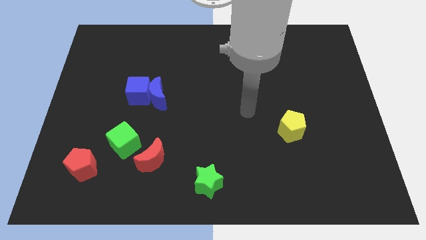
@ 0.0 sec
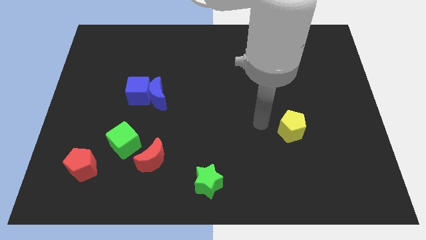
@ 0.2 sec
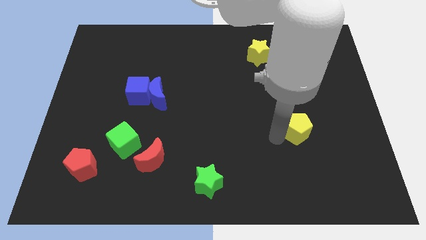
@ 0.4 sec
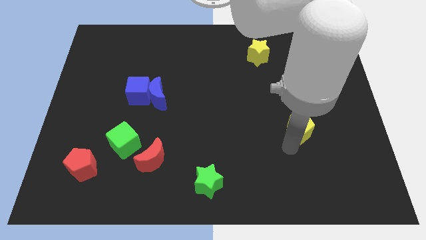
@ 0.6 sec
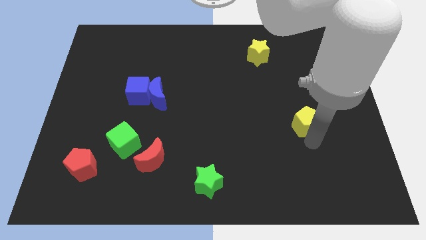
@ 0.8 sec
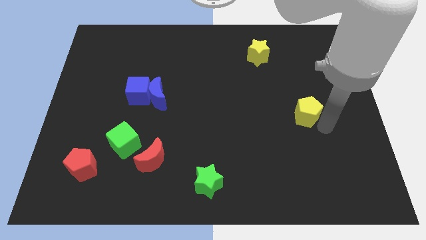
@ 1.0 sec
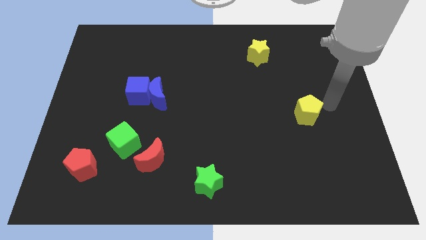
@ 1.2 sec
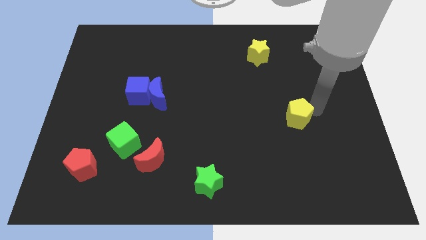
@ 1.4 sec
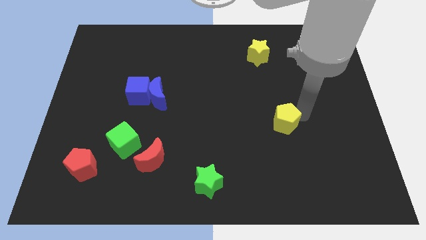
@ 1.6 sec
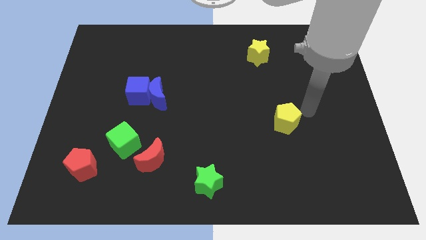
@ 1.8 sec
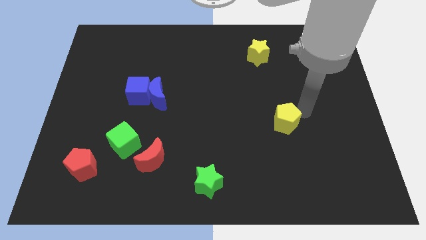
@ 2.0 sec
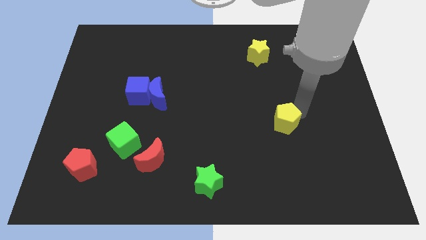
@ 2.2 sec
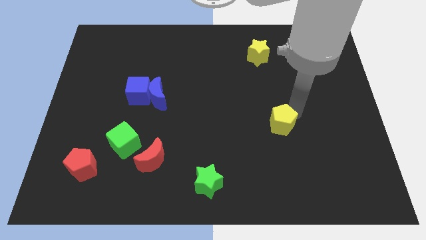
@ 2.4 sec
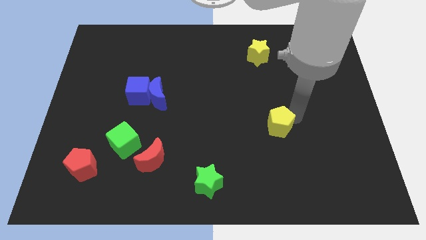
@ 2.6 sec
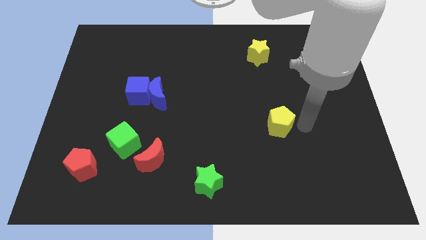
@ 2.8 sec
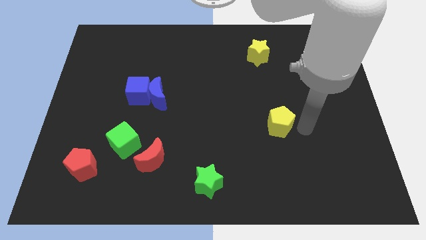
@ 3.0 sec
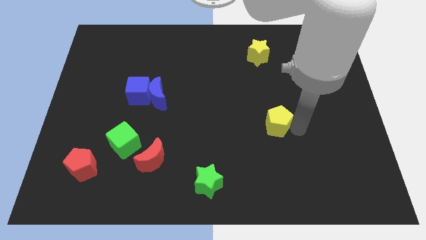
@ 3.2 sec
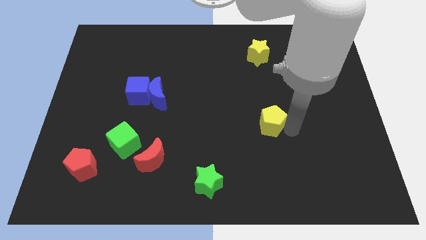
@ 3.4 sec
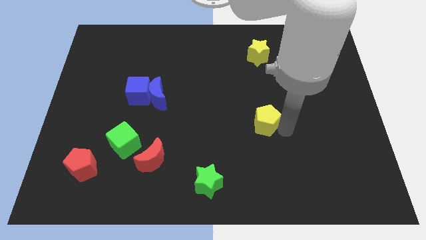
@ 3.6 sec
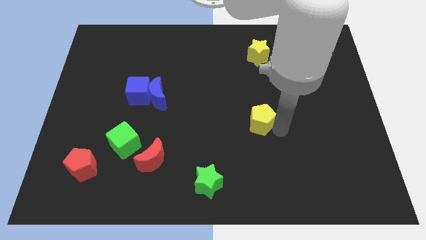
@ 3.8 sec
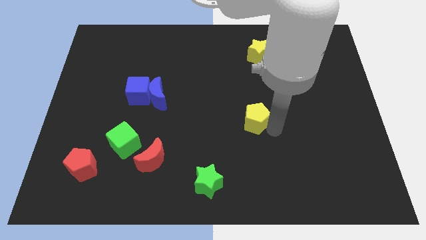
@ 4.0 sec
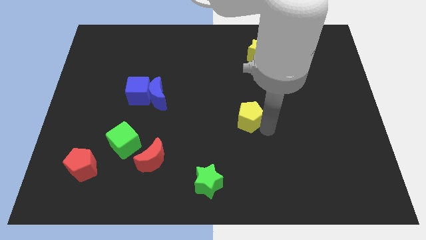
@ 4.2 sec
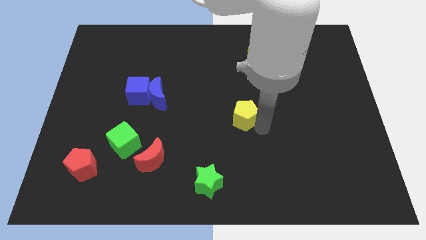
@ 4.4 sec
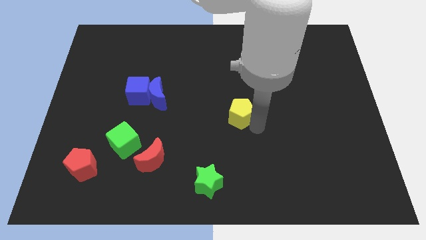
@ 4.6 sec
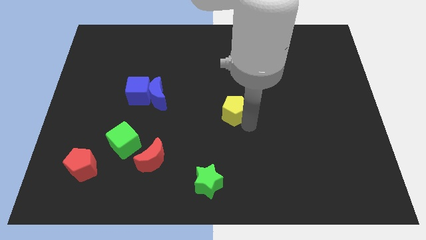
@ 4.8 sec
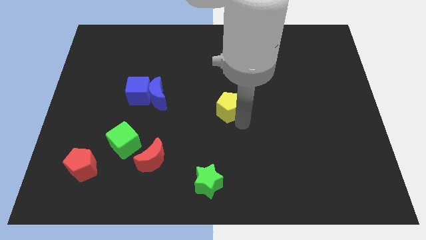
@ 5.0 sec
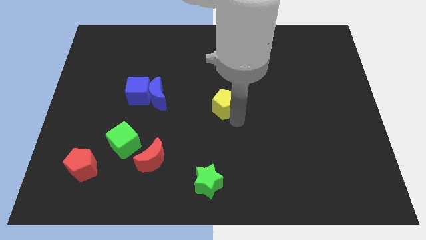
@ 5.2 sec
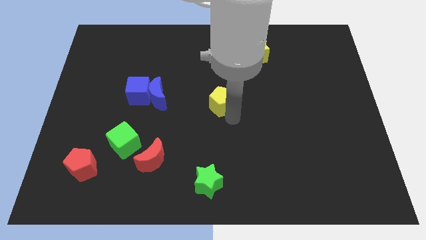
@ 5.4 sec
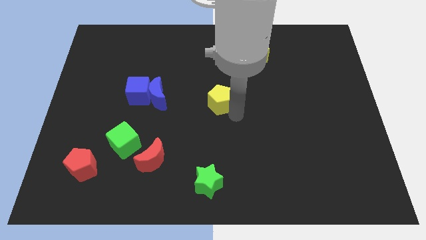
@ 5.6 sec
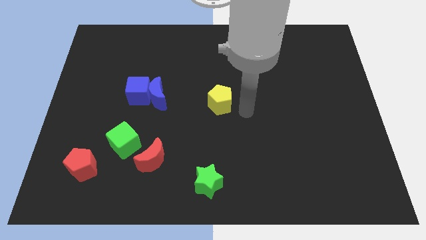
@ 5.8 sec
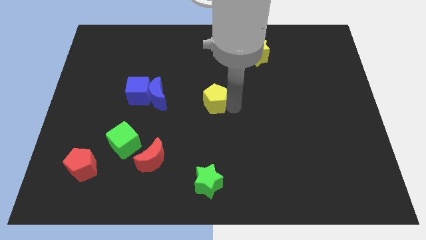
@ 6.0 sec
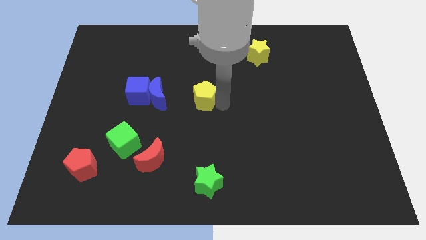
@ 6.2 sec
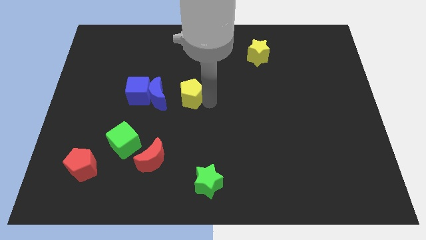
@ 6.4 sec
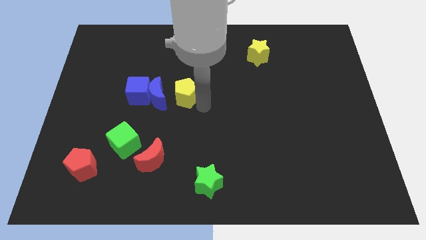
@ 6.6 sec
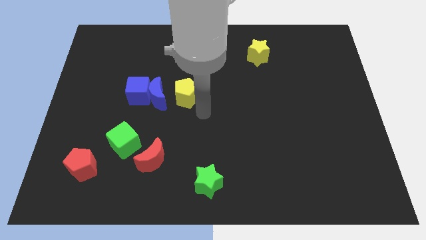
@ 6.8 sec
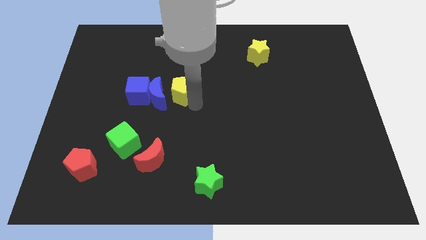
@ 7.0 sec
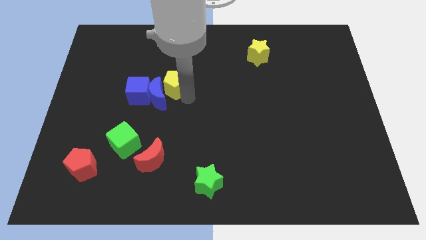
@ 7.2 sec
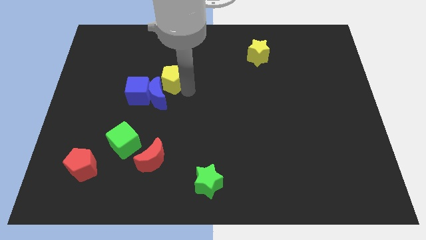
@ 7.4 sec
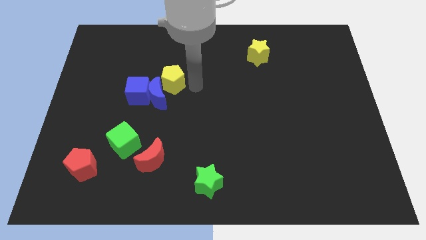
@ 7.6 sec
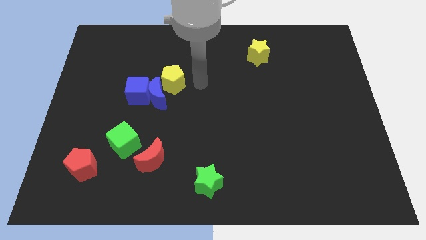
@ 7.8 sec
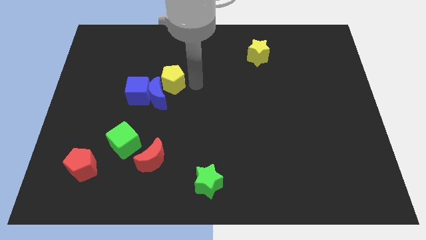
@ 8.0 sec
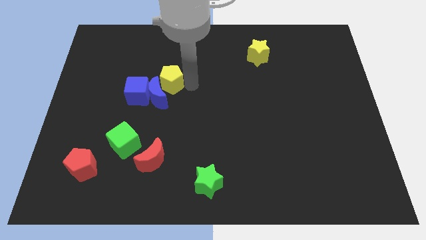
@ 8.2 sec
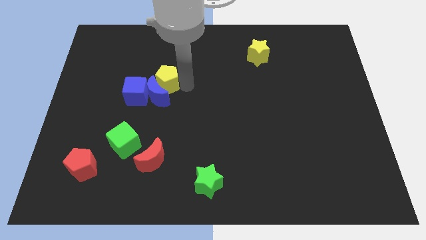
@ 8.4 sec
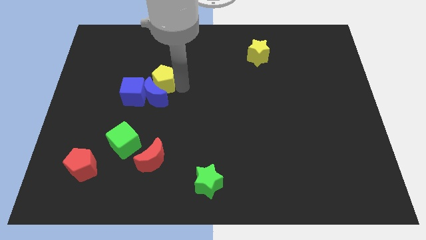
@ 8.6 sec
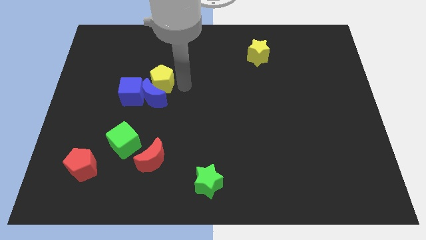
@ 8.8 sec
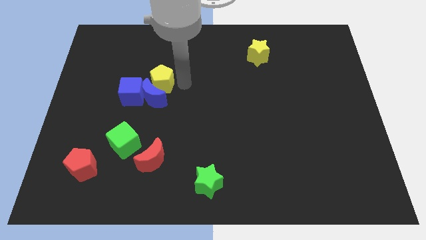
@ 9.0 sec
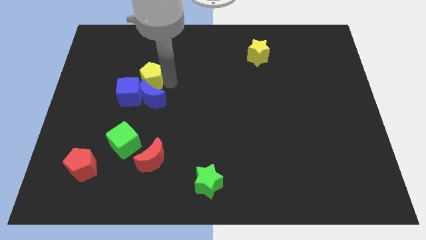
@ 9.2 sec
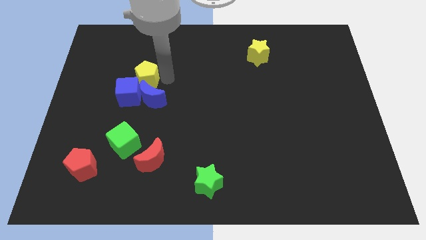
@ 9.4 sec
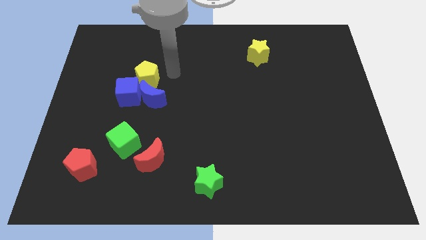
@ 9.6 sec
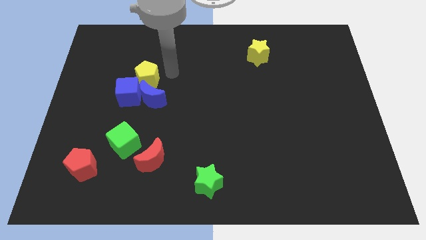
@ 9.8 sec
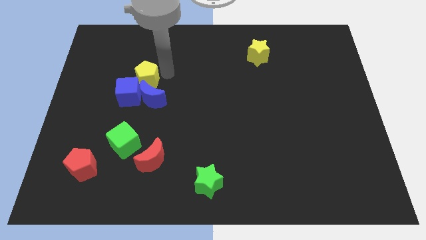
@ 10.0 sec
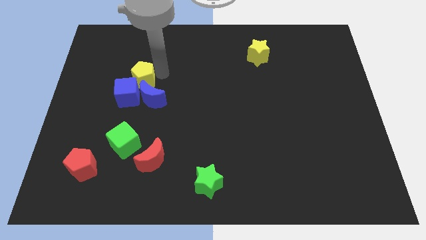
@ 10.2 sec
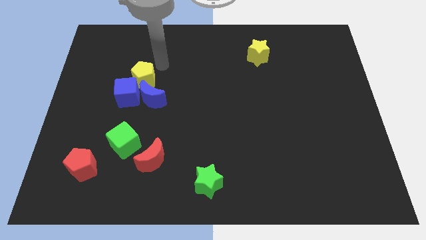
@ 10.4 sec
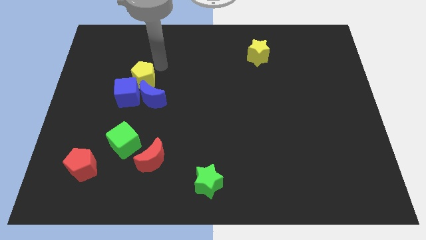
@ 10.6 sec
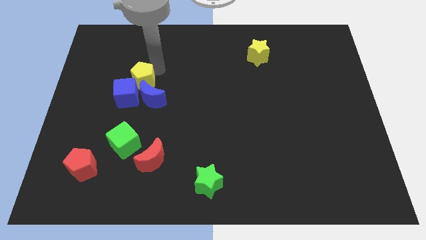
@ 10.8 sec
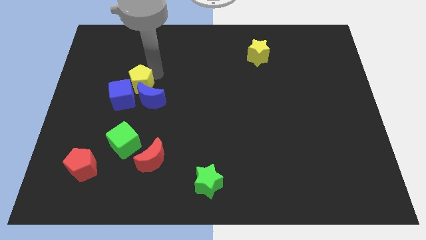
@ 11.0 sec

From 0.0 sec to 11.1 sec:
push the yellow pentagon close to the blue cube

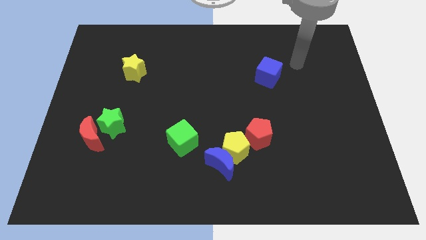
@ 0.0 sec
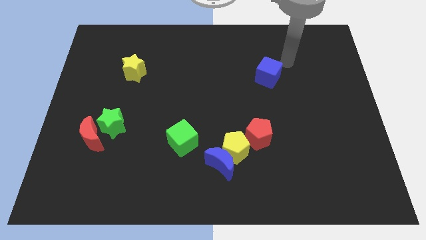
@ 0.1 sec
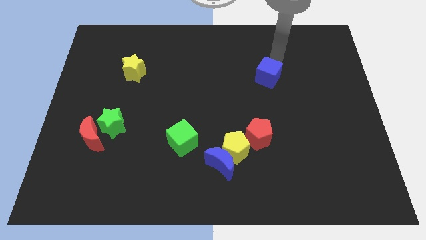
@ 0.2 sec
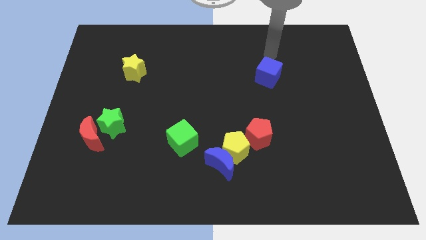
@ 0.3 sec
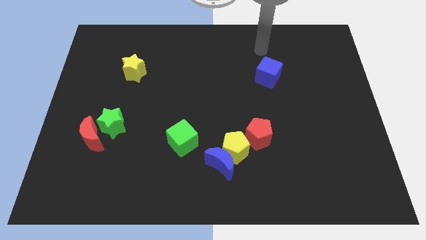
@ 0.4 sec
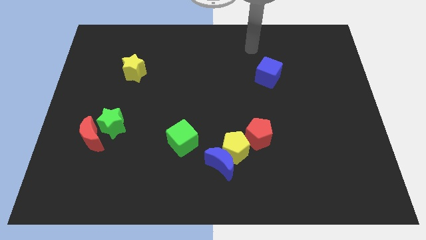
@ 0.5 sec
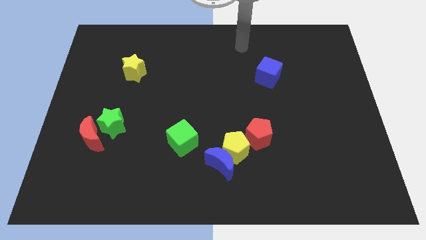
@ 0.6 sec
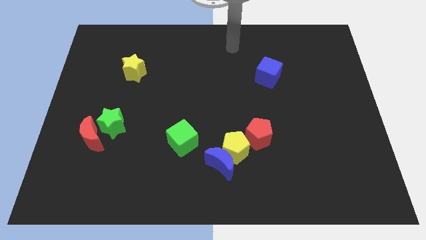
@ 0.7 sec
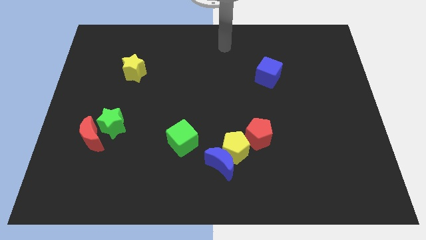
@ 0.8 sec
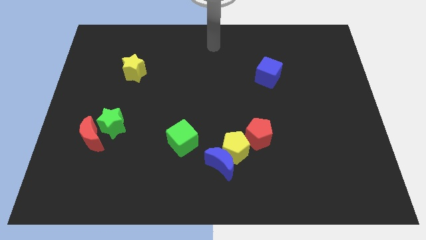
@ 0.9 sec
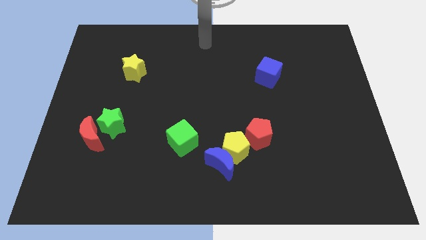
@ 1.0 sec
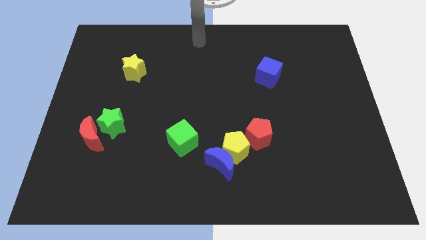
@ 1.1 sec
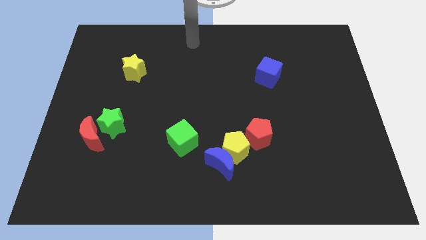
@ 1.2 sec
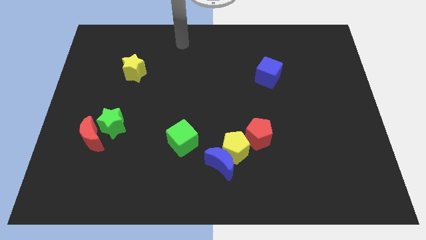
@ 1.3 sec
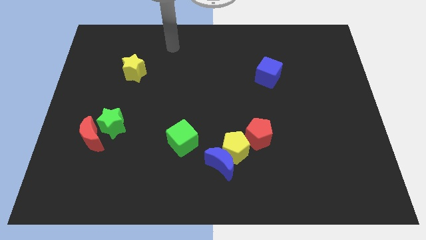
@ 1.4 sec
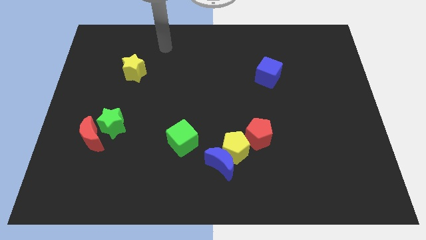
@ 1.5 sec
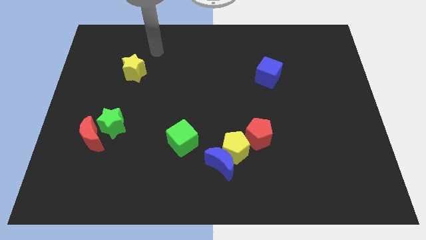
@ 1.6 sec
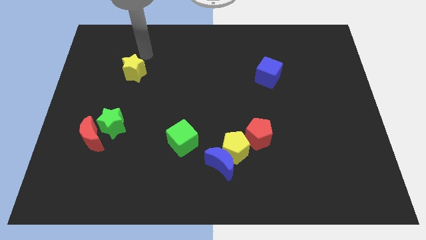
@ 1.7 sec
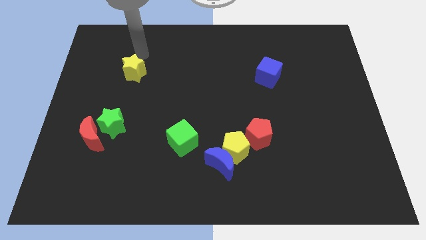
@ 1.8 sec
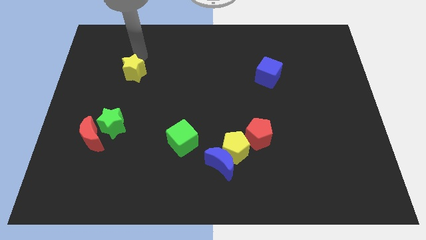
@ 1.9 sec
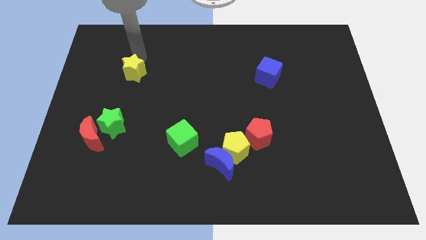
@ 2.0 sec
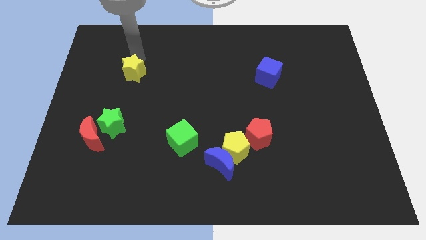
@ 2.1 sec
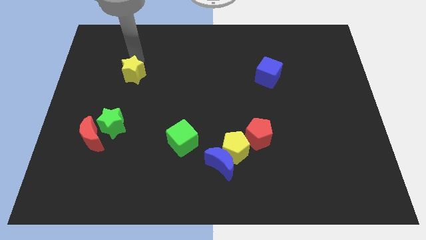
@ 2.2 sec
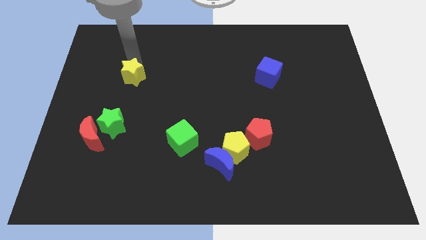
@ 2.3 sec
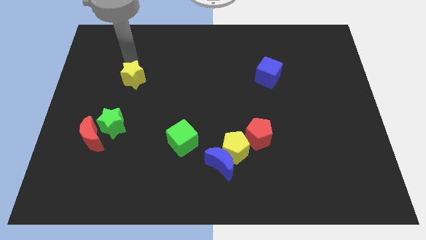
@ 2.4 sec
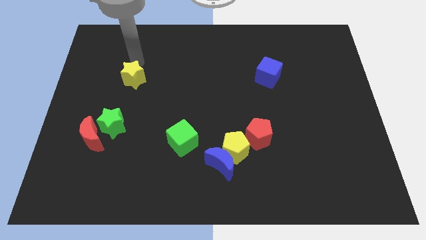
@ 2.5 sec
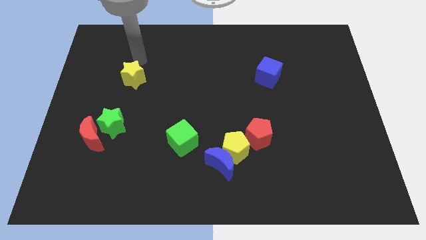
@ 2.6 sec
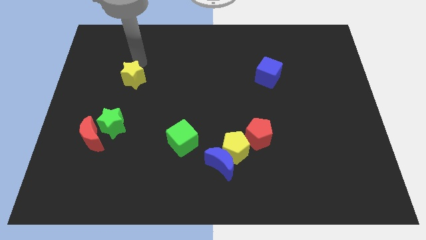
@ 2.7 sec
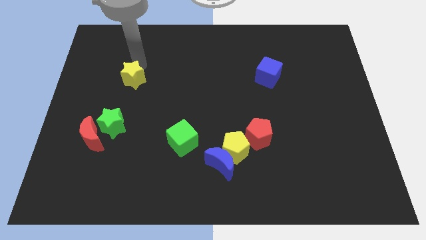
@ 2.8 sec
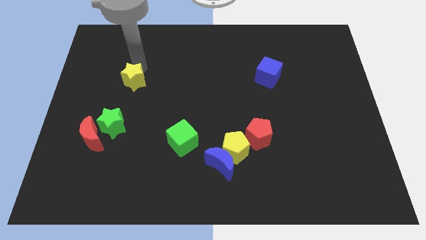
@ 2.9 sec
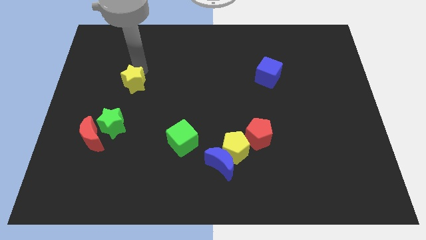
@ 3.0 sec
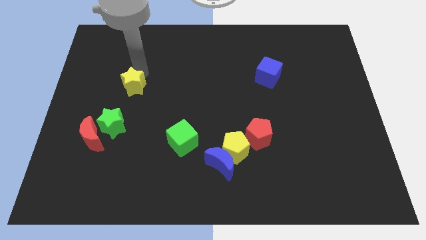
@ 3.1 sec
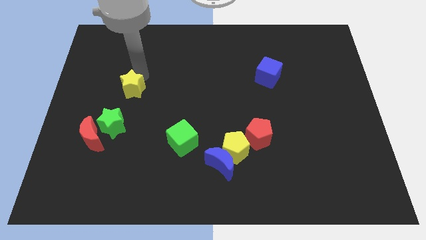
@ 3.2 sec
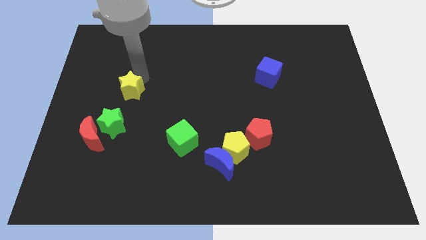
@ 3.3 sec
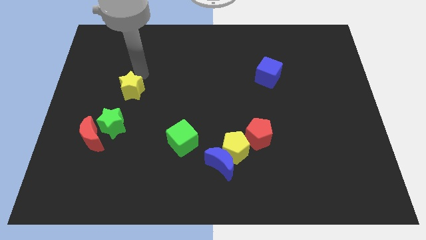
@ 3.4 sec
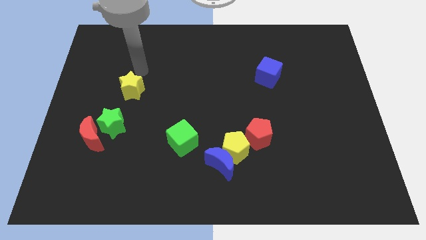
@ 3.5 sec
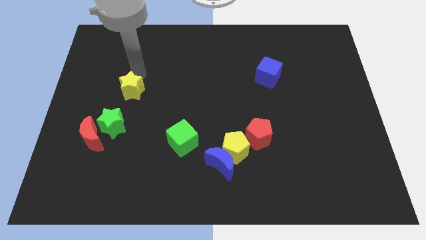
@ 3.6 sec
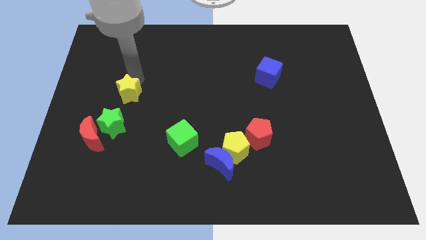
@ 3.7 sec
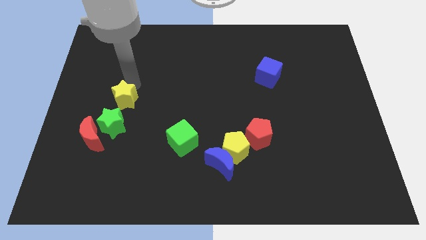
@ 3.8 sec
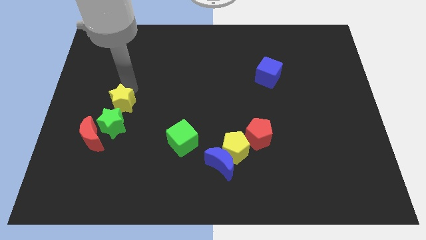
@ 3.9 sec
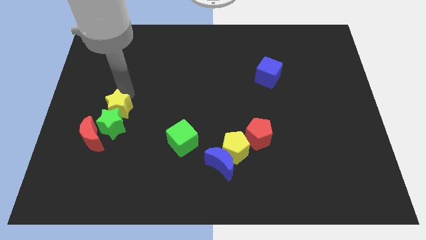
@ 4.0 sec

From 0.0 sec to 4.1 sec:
push the yellow star to the green star
